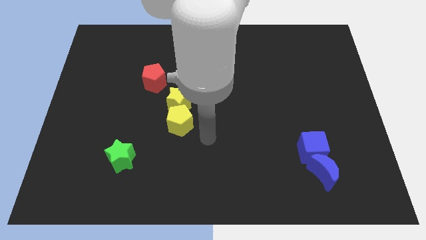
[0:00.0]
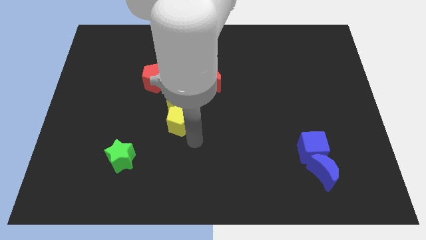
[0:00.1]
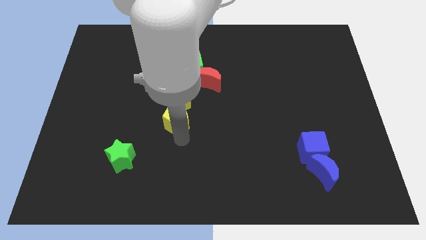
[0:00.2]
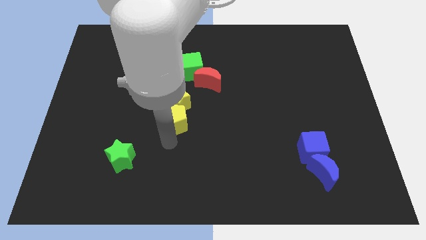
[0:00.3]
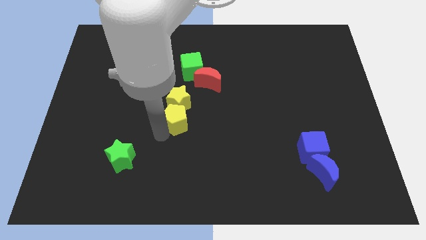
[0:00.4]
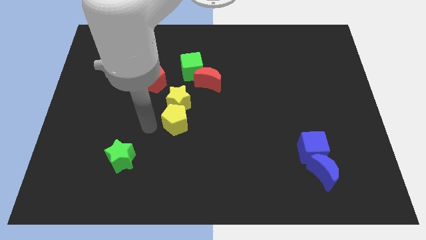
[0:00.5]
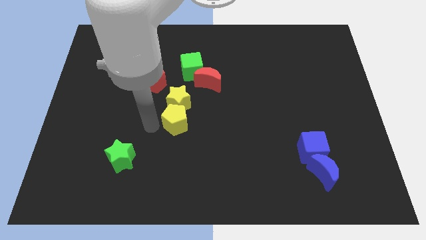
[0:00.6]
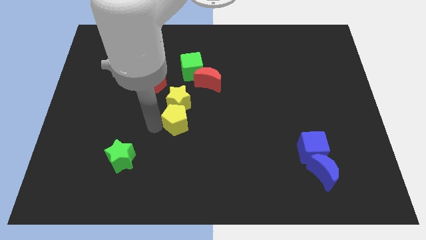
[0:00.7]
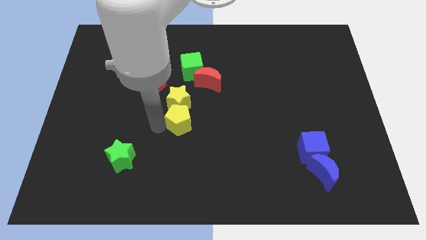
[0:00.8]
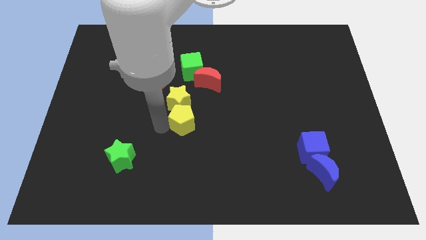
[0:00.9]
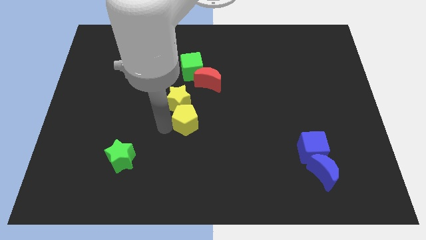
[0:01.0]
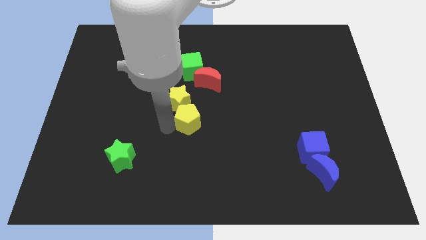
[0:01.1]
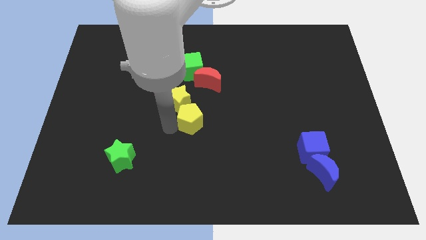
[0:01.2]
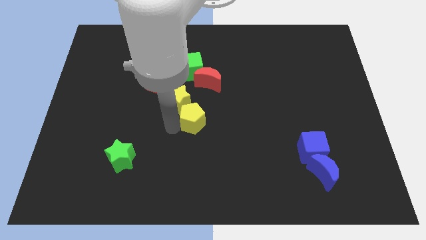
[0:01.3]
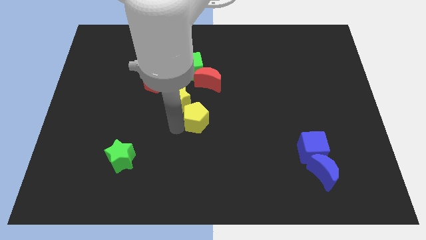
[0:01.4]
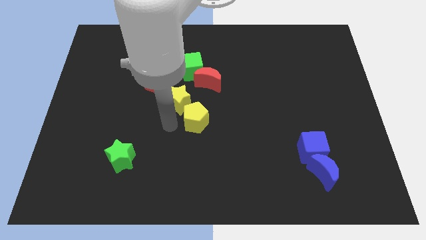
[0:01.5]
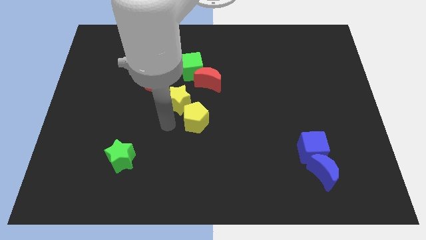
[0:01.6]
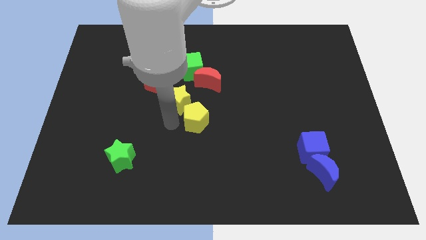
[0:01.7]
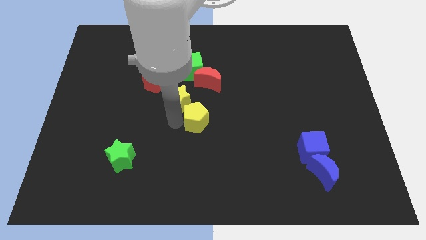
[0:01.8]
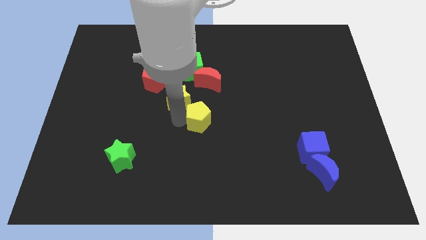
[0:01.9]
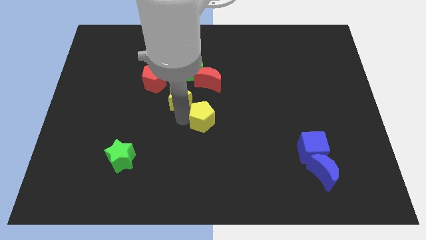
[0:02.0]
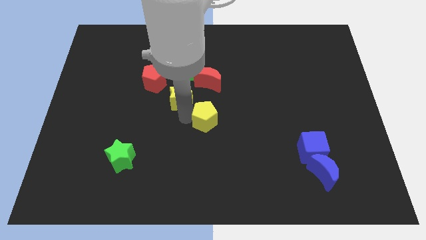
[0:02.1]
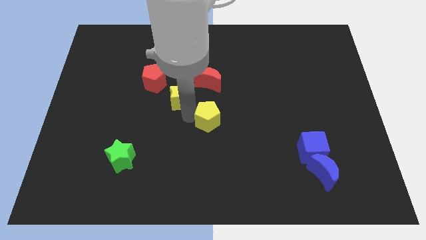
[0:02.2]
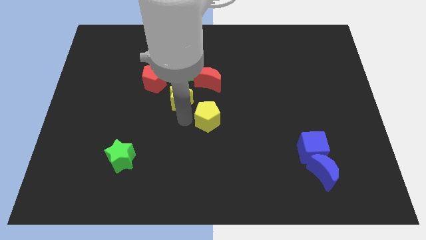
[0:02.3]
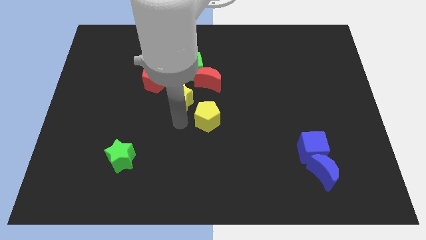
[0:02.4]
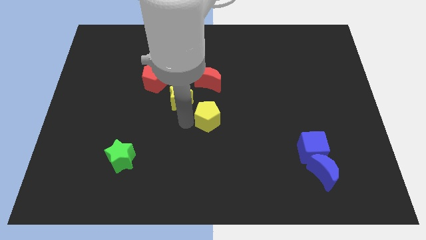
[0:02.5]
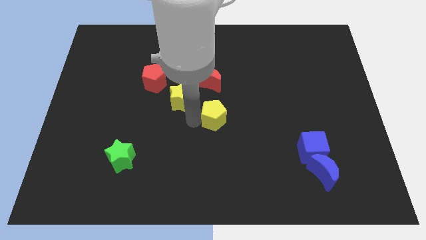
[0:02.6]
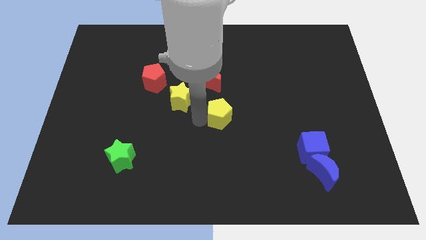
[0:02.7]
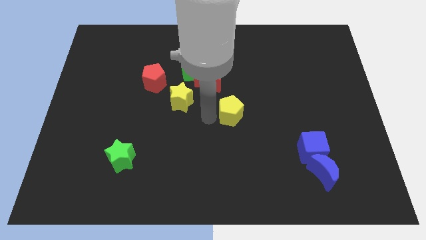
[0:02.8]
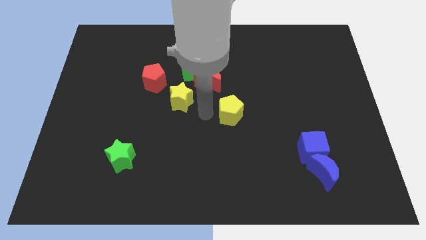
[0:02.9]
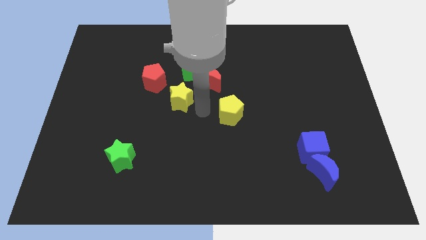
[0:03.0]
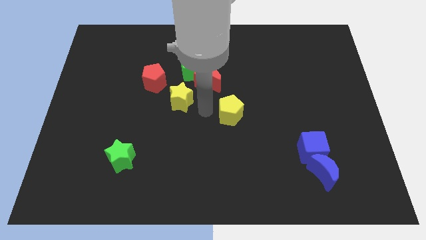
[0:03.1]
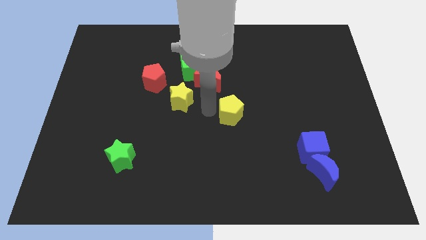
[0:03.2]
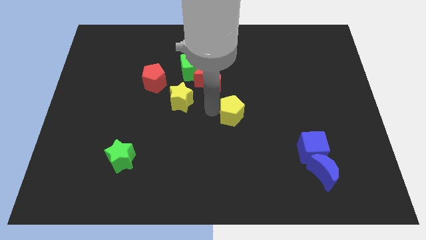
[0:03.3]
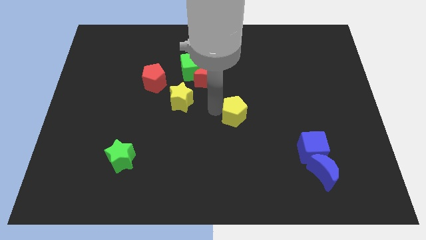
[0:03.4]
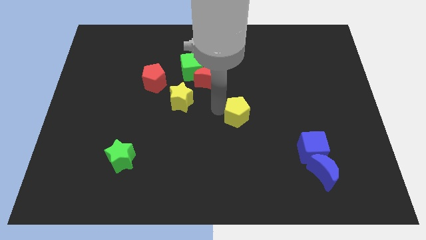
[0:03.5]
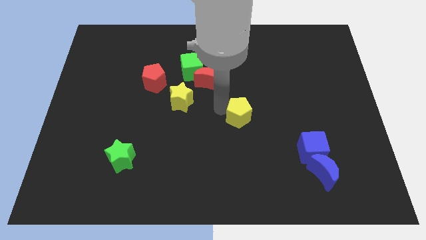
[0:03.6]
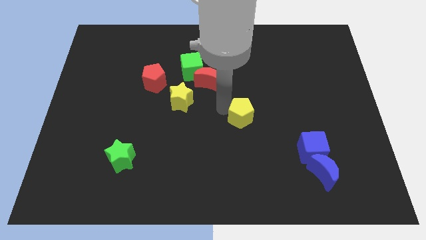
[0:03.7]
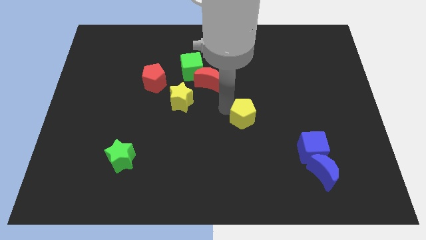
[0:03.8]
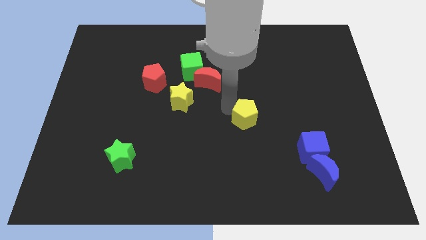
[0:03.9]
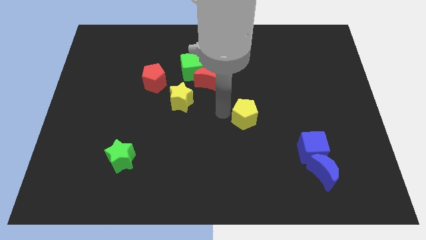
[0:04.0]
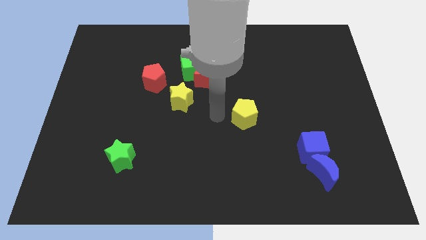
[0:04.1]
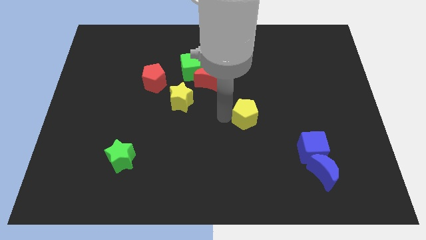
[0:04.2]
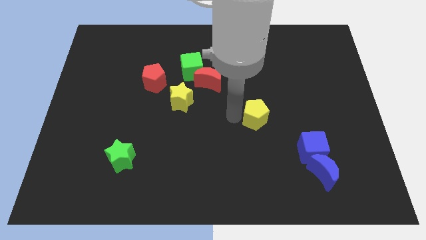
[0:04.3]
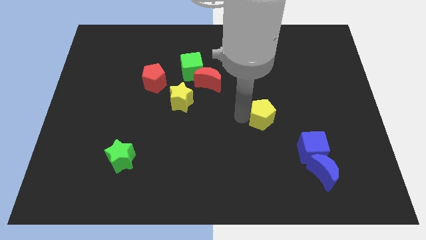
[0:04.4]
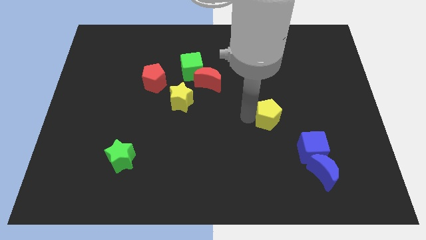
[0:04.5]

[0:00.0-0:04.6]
move the yellow pentagon right

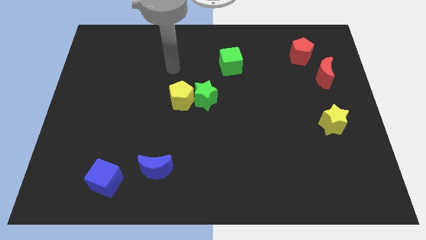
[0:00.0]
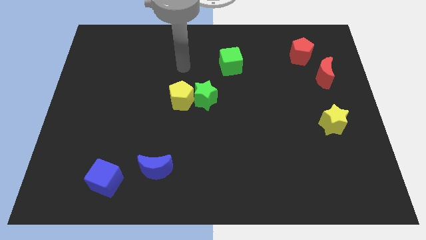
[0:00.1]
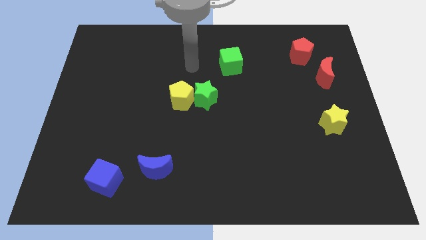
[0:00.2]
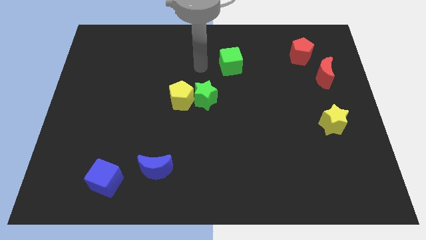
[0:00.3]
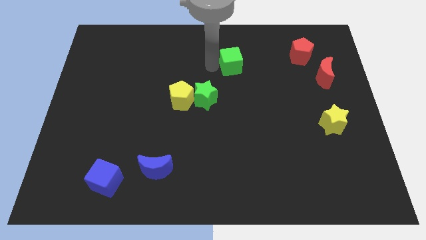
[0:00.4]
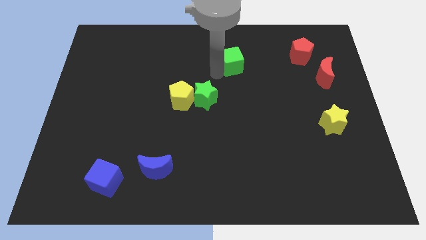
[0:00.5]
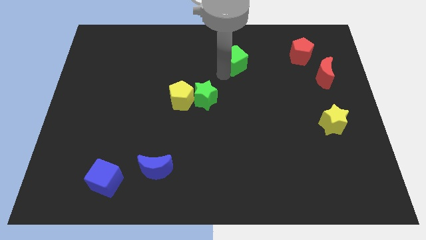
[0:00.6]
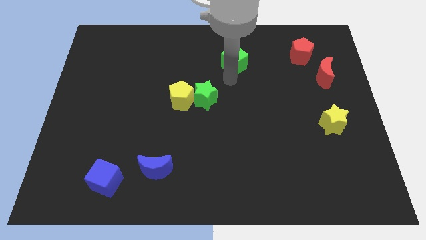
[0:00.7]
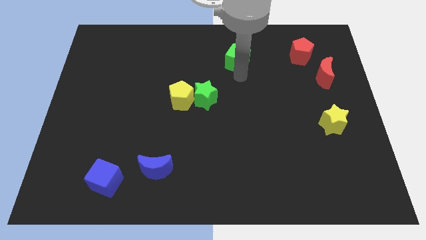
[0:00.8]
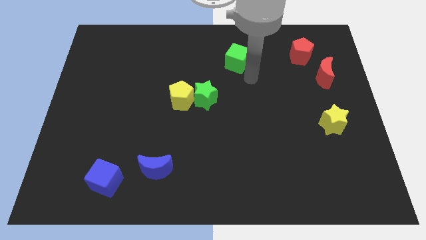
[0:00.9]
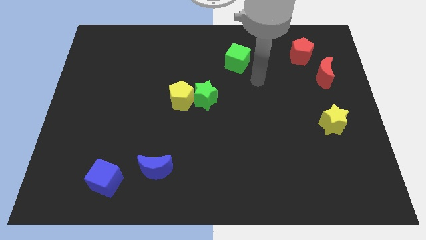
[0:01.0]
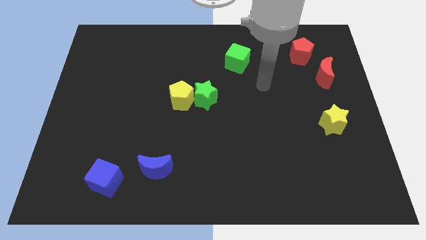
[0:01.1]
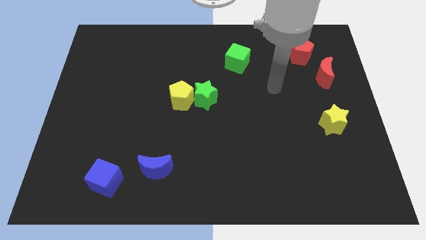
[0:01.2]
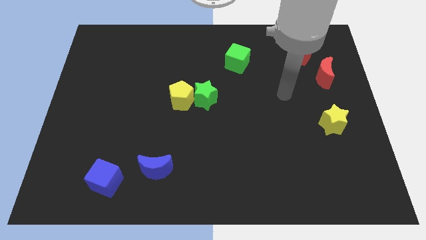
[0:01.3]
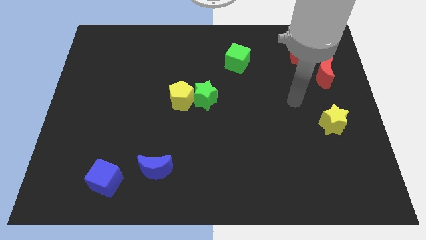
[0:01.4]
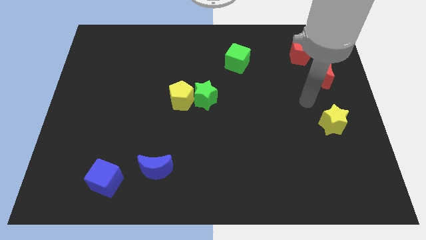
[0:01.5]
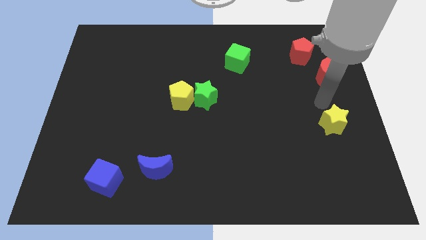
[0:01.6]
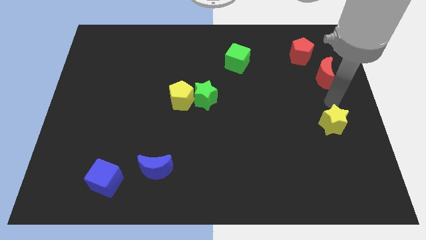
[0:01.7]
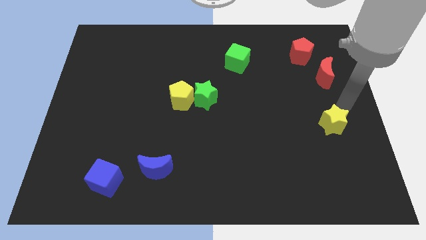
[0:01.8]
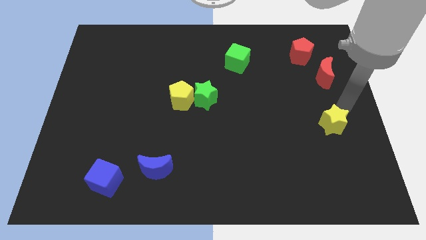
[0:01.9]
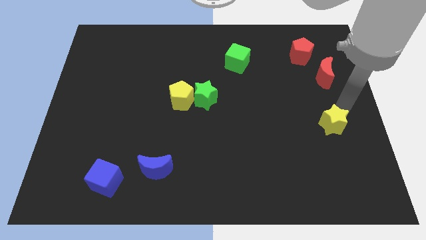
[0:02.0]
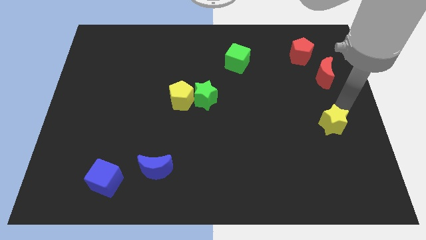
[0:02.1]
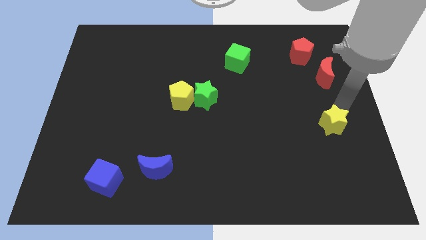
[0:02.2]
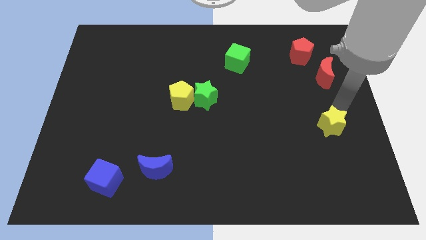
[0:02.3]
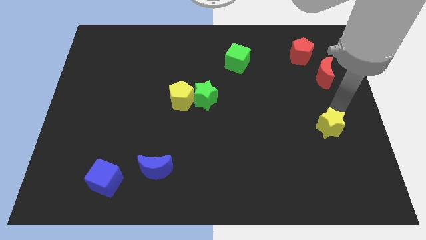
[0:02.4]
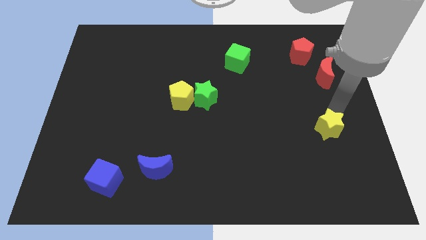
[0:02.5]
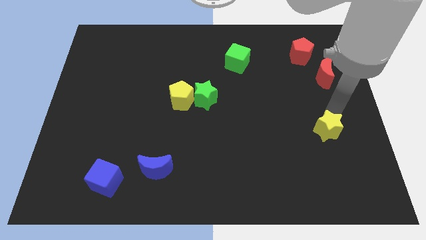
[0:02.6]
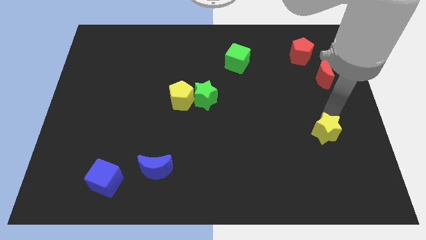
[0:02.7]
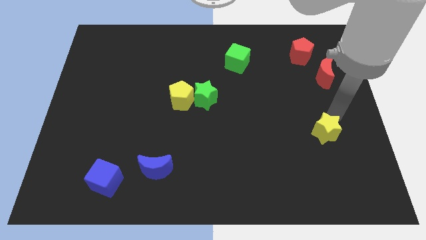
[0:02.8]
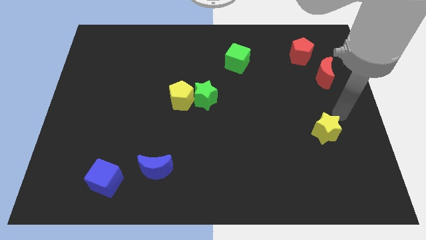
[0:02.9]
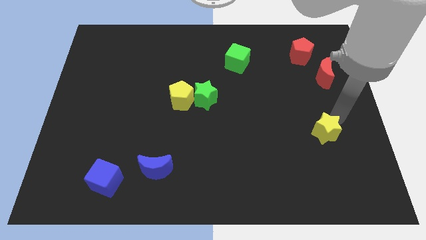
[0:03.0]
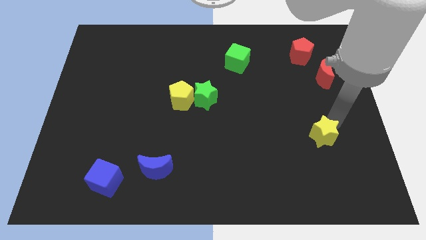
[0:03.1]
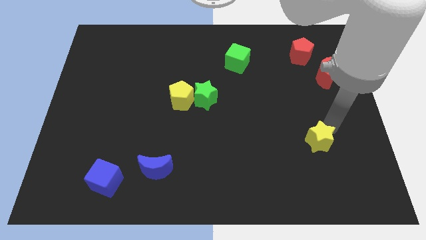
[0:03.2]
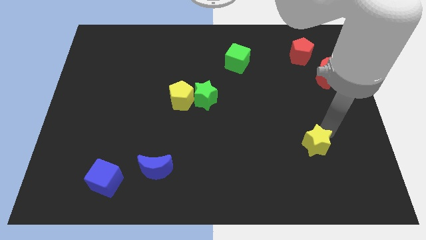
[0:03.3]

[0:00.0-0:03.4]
move the yellow star diagonally downwards and to the left slightly
